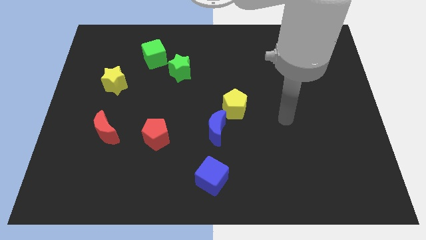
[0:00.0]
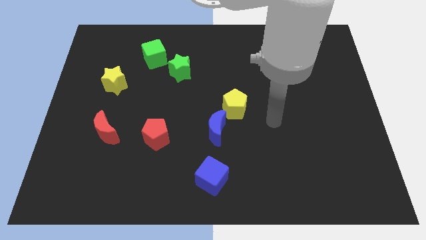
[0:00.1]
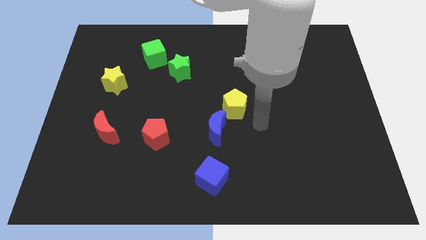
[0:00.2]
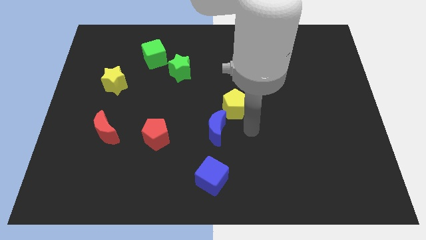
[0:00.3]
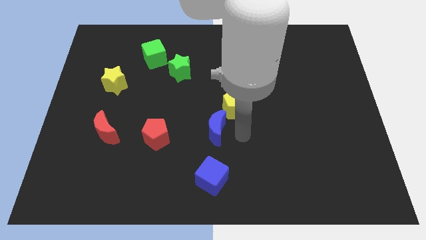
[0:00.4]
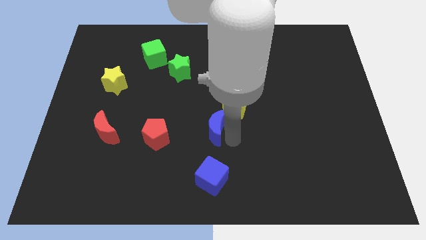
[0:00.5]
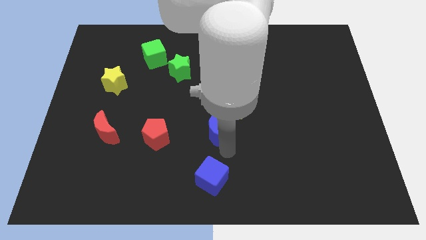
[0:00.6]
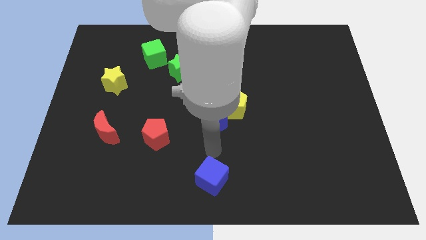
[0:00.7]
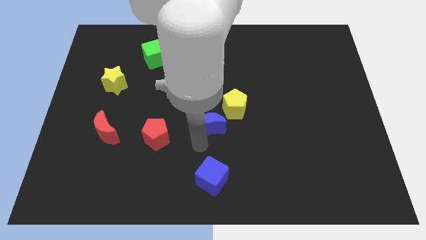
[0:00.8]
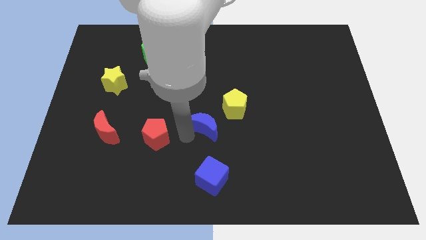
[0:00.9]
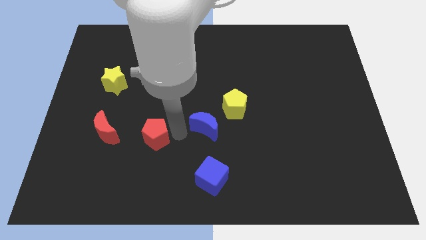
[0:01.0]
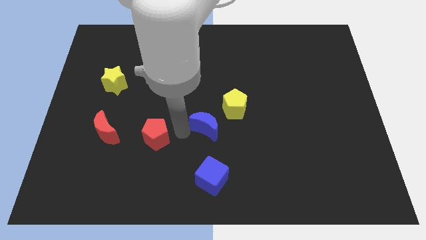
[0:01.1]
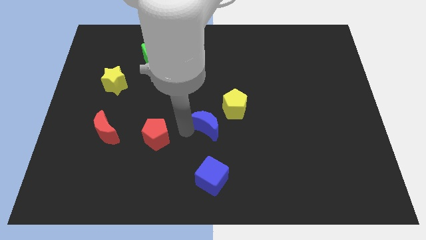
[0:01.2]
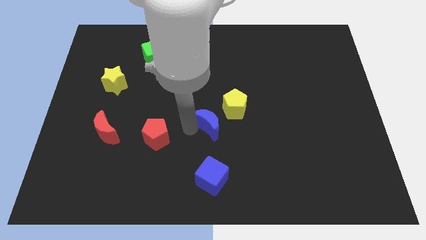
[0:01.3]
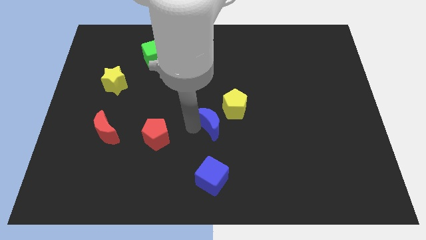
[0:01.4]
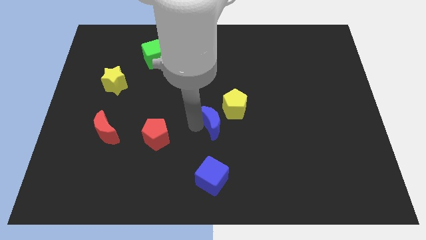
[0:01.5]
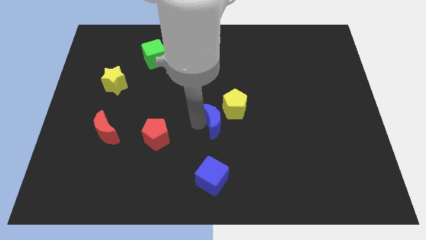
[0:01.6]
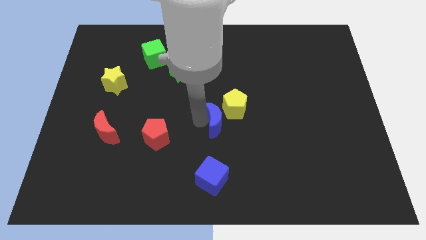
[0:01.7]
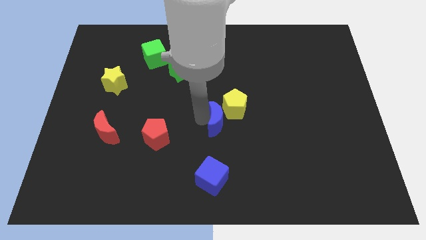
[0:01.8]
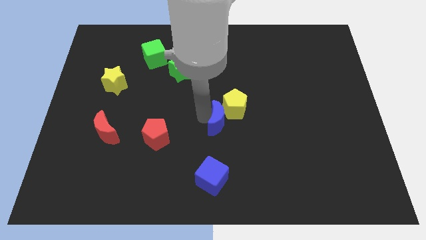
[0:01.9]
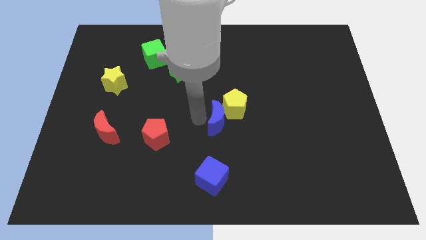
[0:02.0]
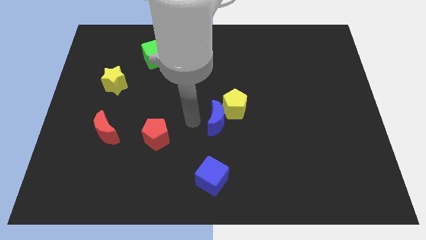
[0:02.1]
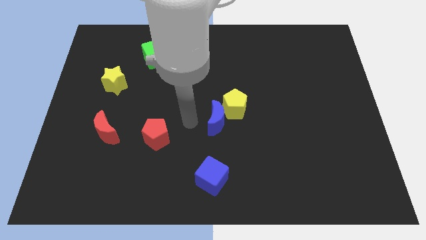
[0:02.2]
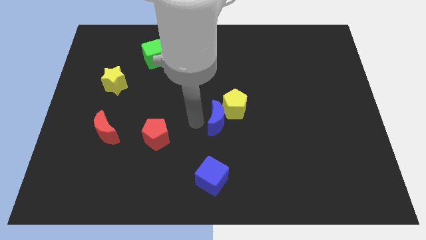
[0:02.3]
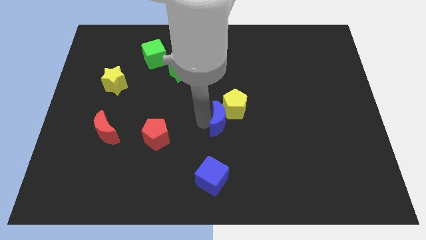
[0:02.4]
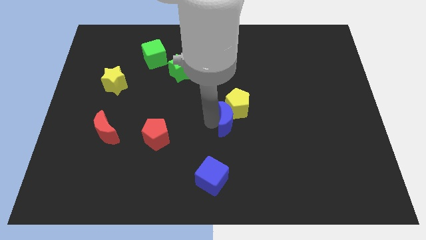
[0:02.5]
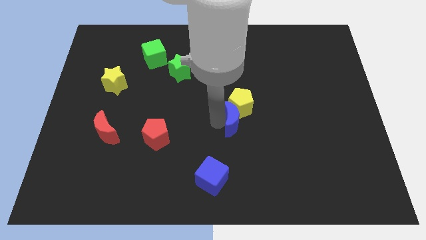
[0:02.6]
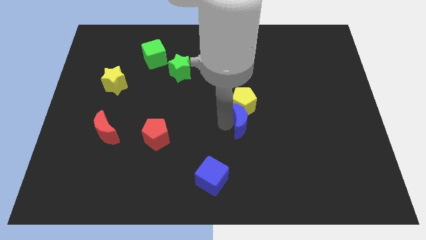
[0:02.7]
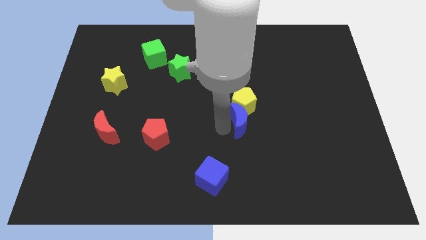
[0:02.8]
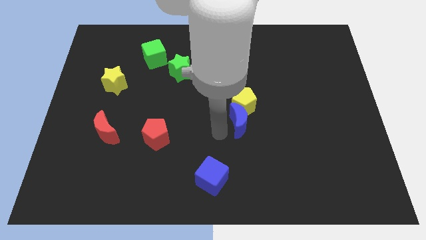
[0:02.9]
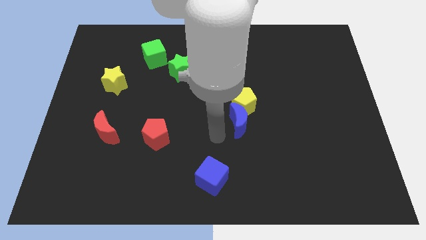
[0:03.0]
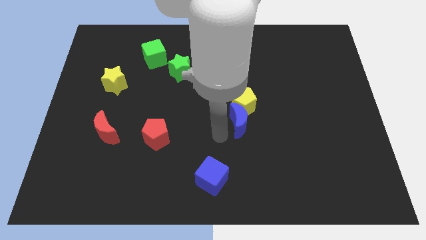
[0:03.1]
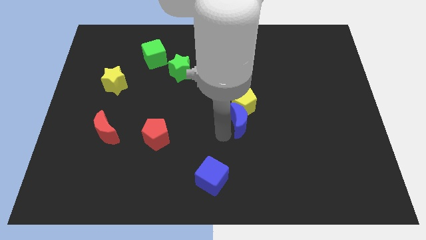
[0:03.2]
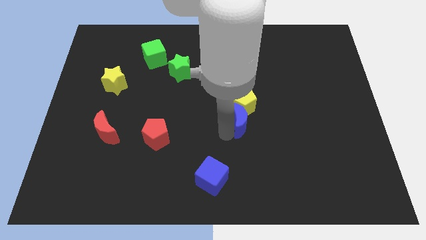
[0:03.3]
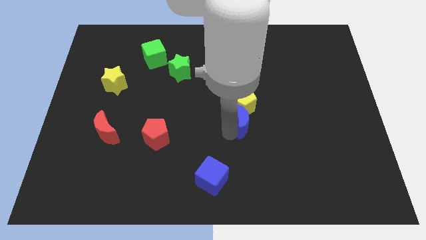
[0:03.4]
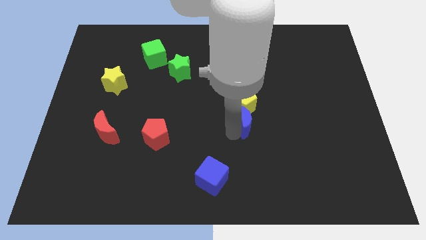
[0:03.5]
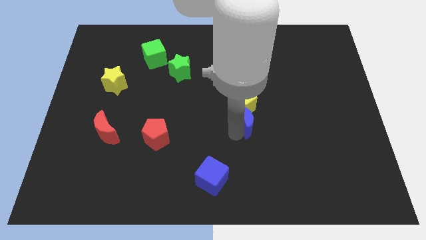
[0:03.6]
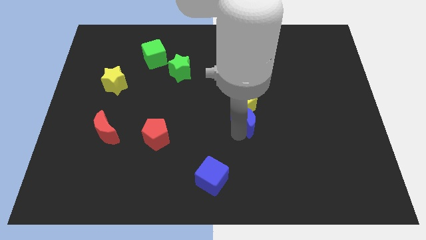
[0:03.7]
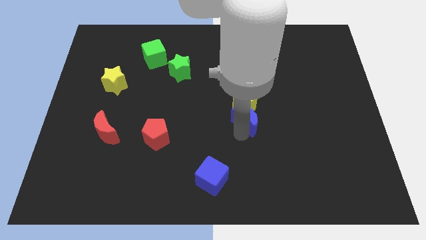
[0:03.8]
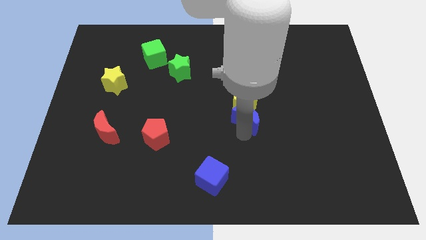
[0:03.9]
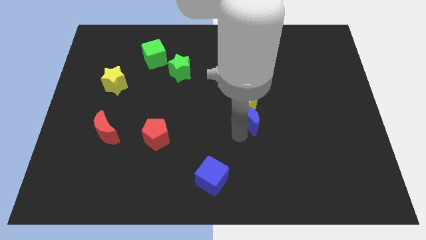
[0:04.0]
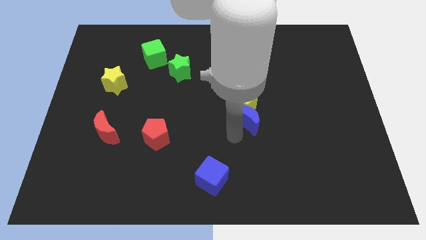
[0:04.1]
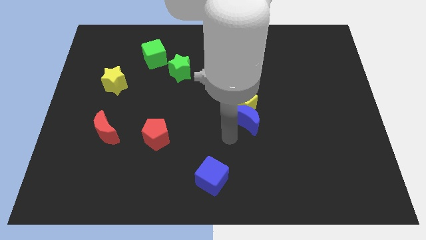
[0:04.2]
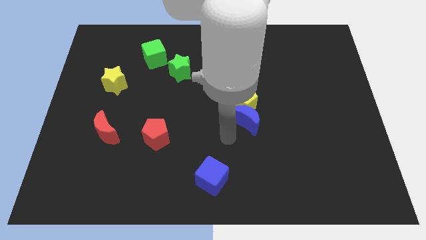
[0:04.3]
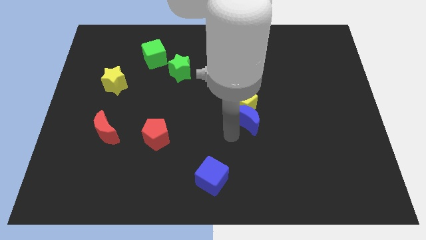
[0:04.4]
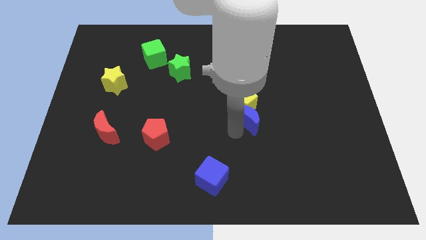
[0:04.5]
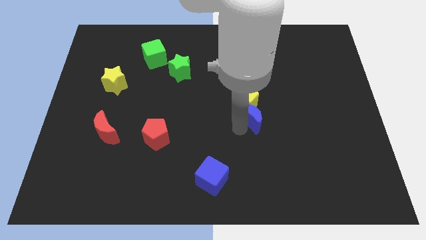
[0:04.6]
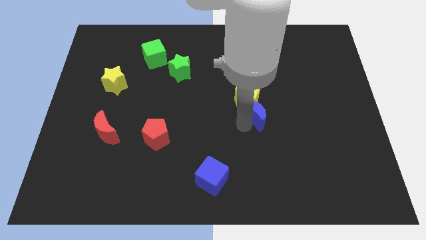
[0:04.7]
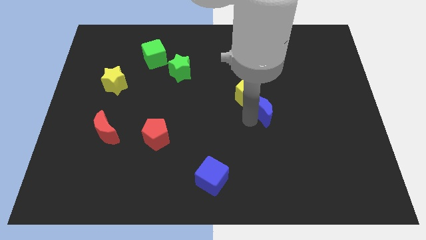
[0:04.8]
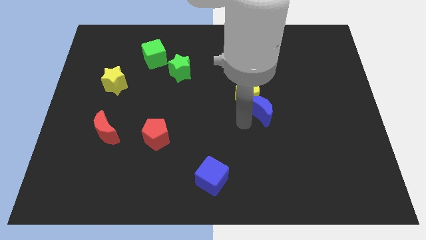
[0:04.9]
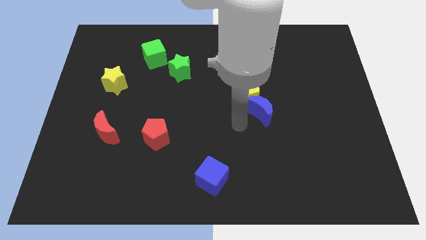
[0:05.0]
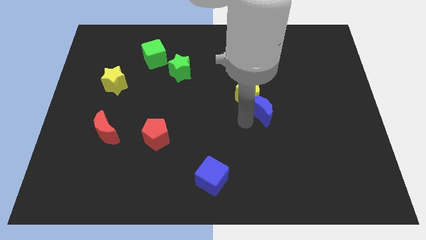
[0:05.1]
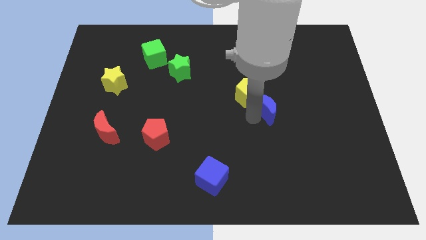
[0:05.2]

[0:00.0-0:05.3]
move the blue moon just right of the yellow pentagon

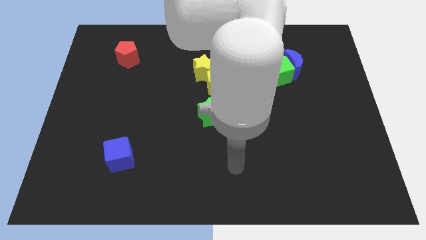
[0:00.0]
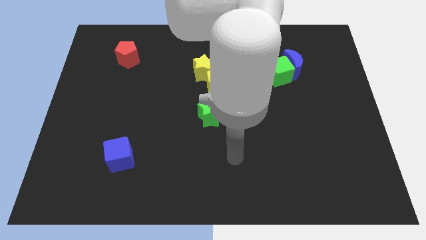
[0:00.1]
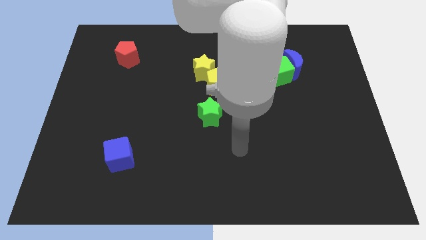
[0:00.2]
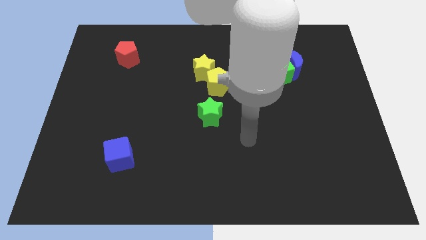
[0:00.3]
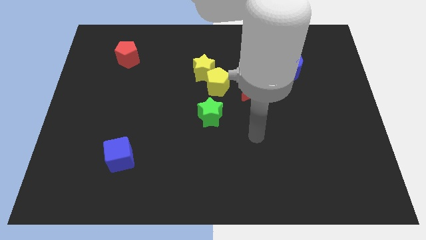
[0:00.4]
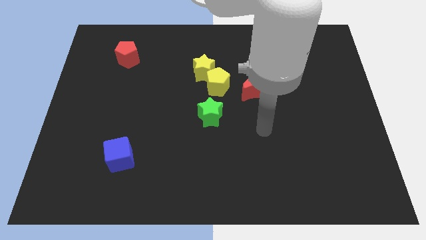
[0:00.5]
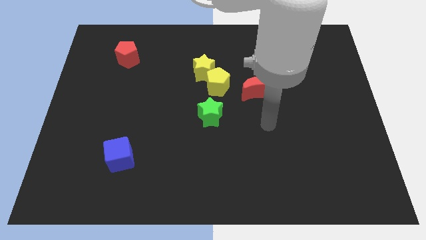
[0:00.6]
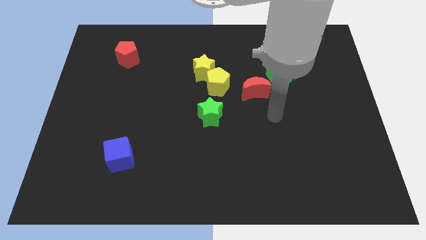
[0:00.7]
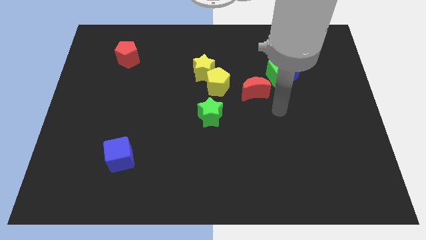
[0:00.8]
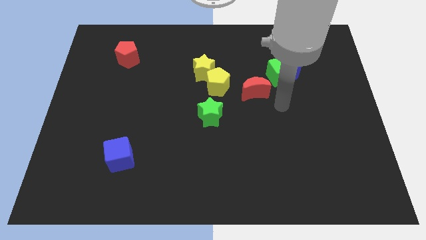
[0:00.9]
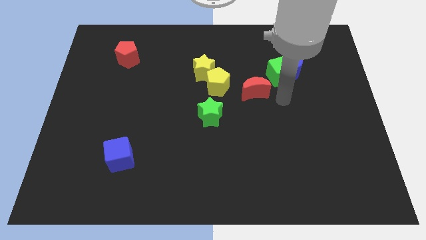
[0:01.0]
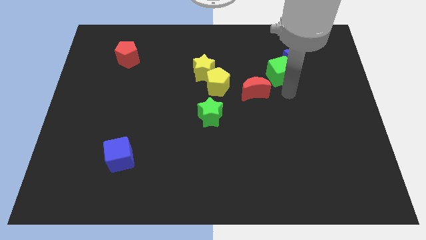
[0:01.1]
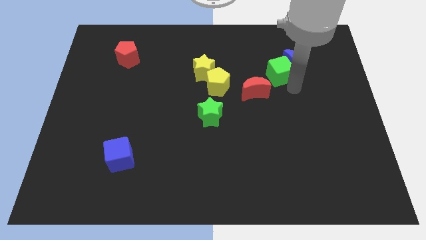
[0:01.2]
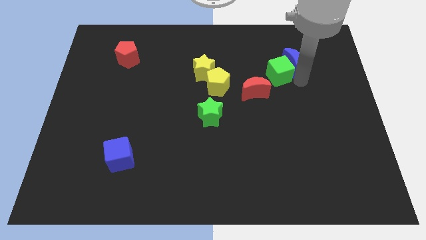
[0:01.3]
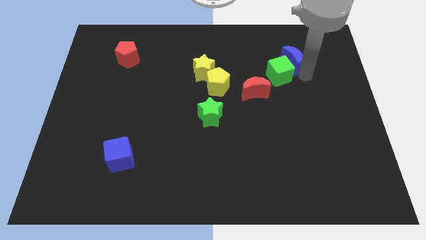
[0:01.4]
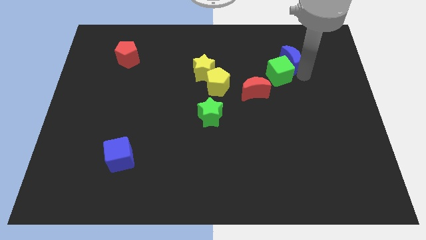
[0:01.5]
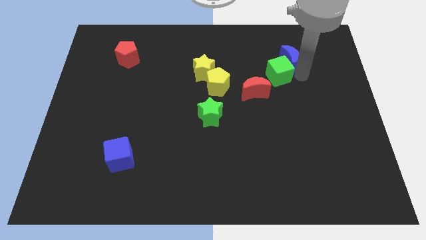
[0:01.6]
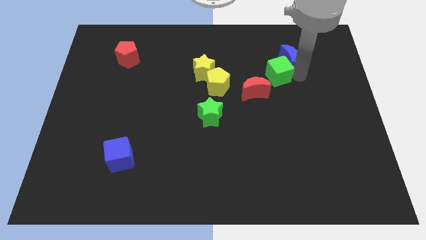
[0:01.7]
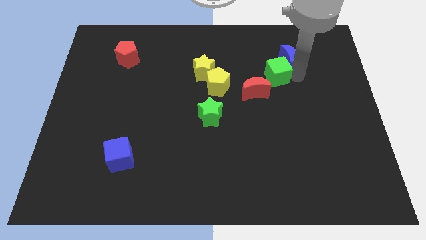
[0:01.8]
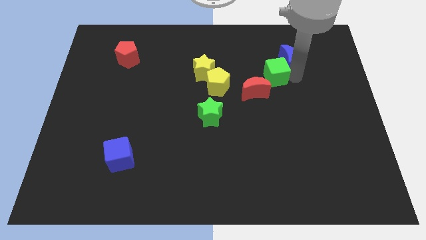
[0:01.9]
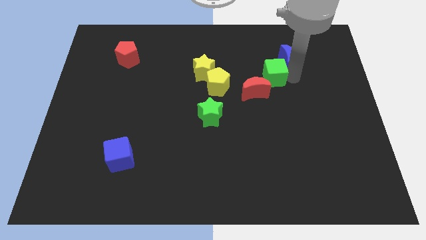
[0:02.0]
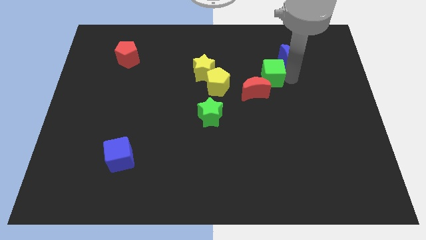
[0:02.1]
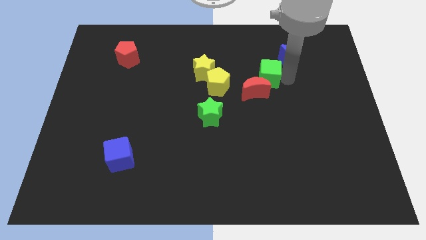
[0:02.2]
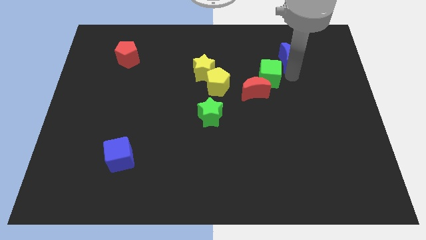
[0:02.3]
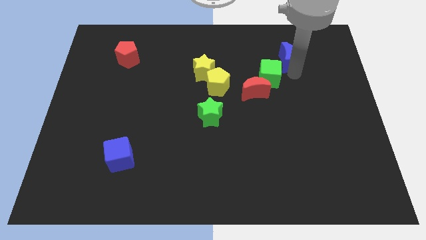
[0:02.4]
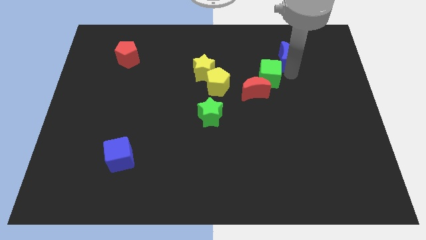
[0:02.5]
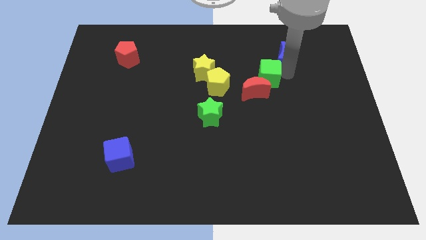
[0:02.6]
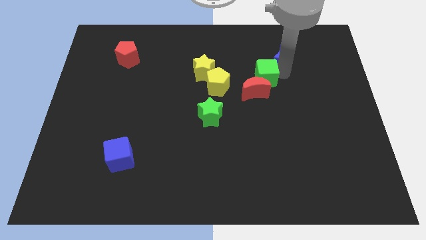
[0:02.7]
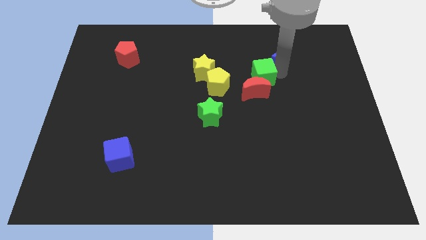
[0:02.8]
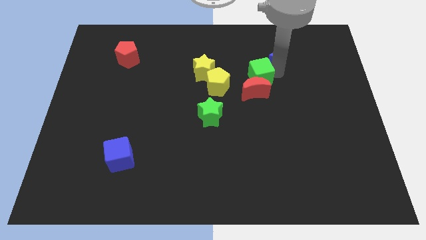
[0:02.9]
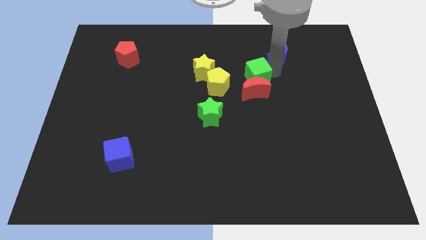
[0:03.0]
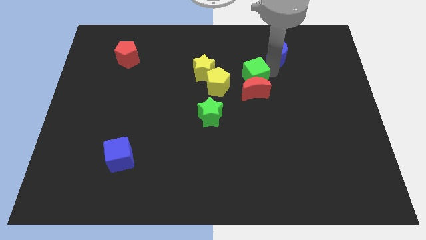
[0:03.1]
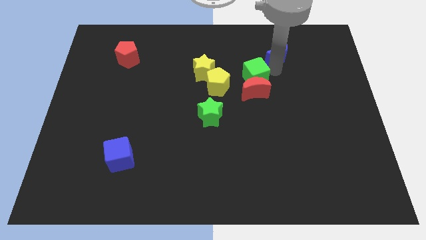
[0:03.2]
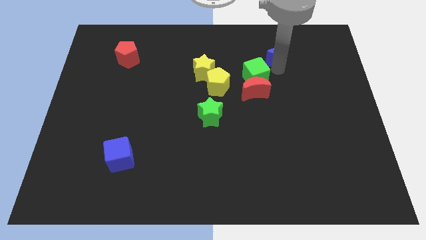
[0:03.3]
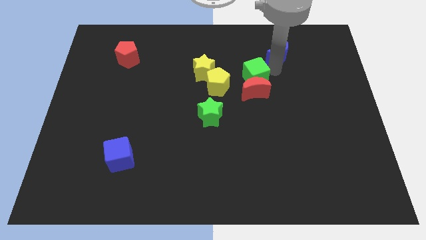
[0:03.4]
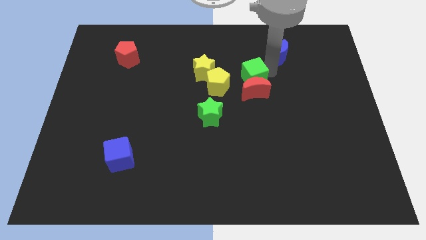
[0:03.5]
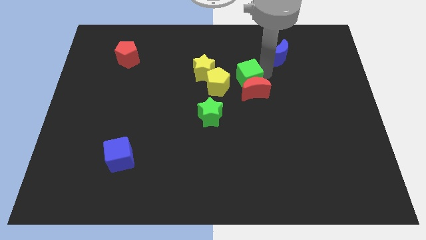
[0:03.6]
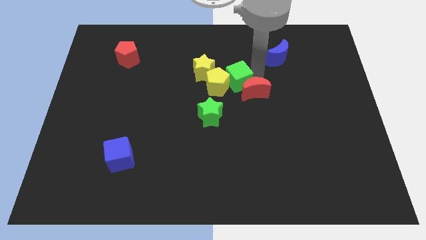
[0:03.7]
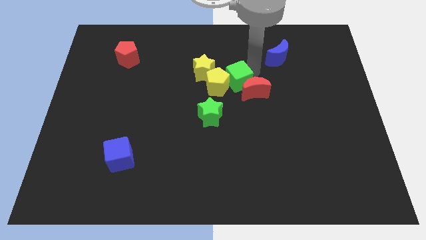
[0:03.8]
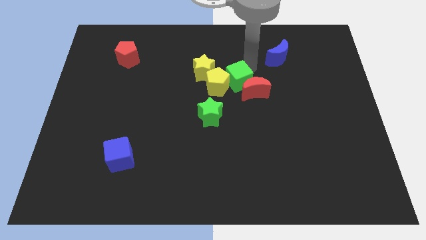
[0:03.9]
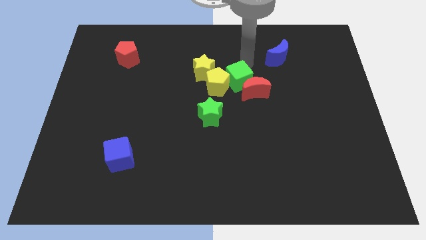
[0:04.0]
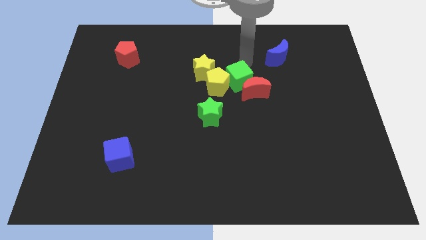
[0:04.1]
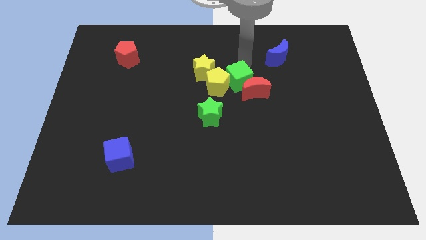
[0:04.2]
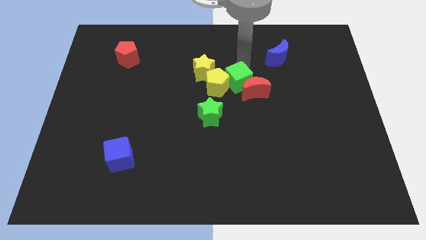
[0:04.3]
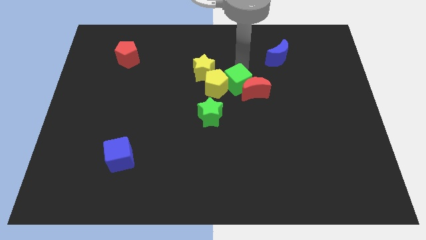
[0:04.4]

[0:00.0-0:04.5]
move the green cube to the top right of the green star
